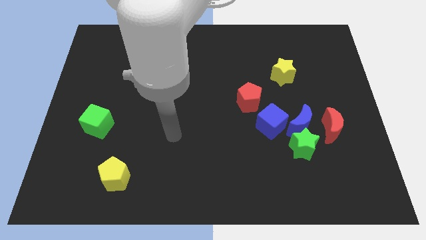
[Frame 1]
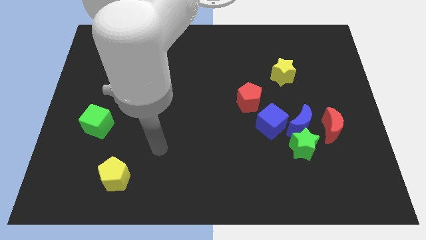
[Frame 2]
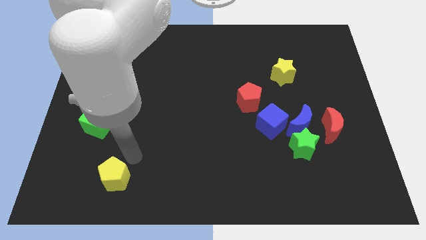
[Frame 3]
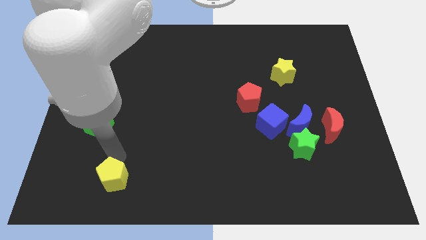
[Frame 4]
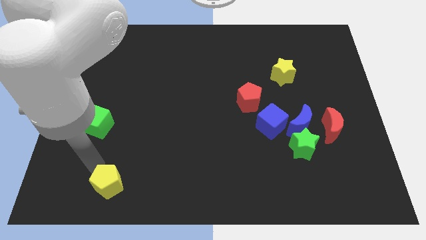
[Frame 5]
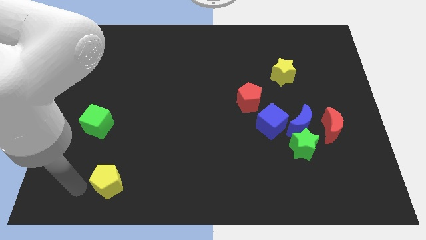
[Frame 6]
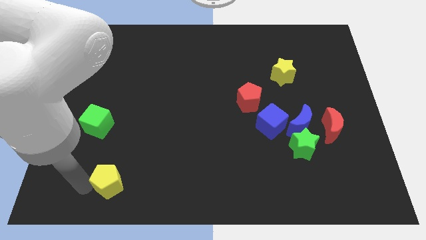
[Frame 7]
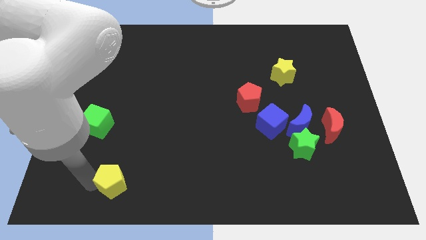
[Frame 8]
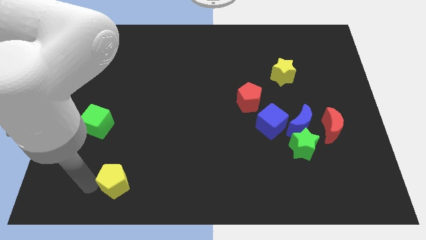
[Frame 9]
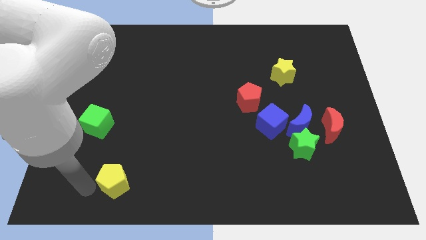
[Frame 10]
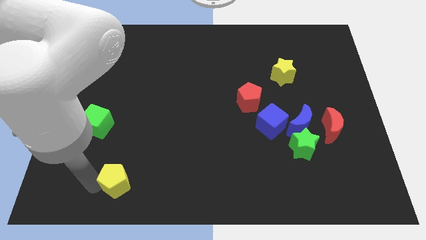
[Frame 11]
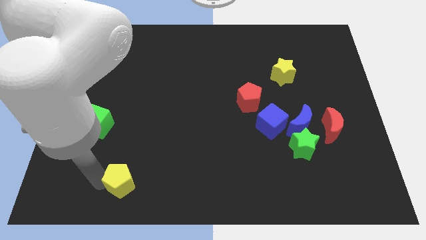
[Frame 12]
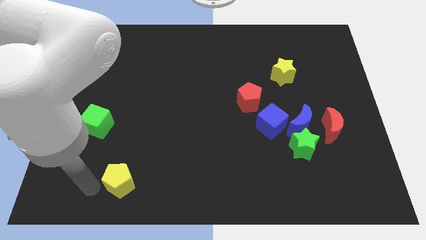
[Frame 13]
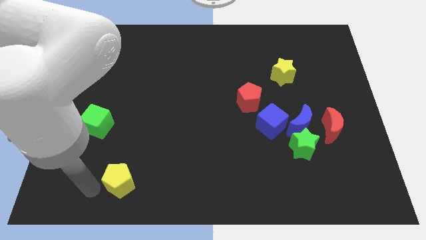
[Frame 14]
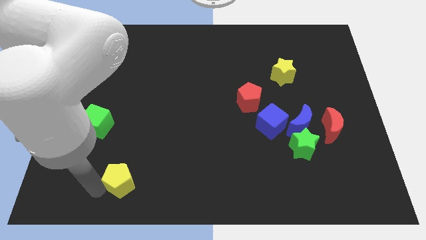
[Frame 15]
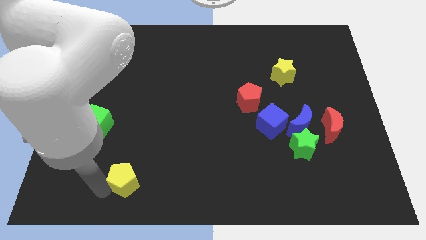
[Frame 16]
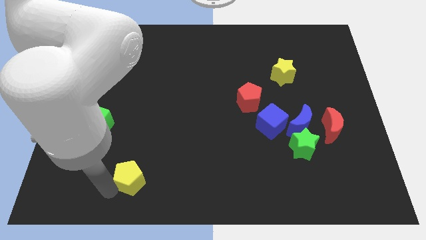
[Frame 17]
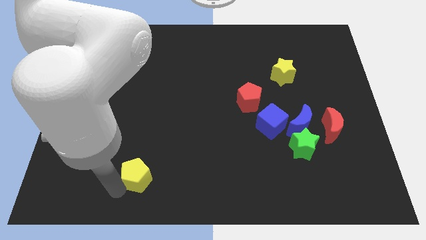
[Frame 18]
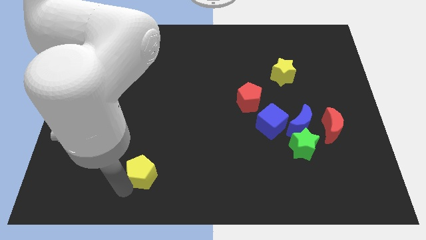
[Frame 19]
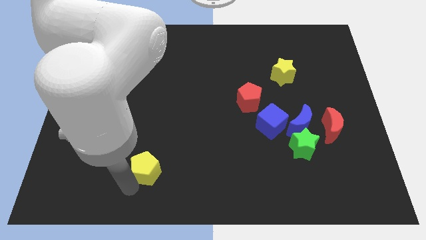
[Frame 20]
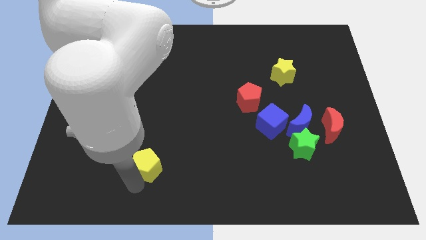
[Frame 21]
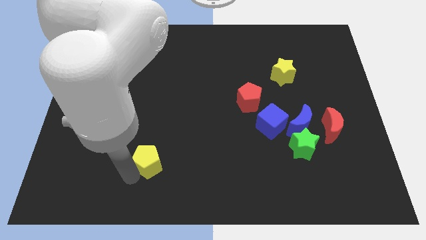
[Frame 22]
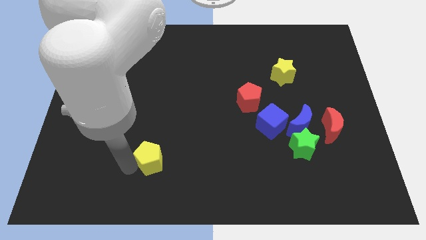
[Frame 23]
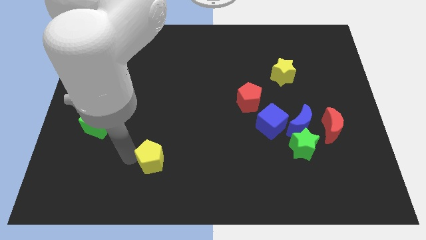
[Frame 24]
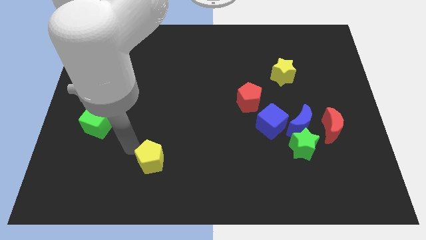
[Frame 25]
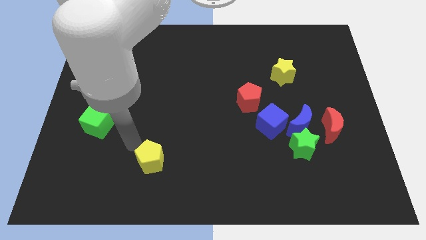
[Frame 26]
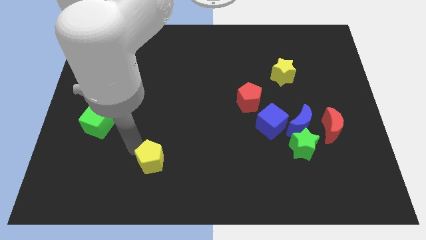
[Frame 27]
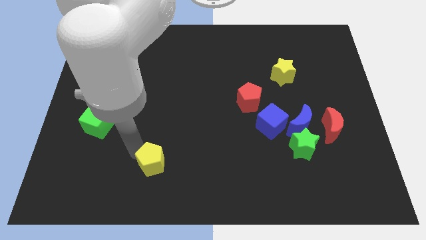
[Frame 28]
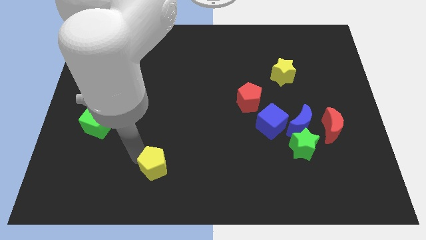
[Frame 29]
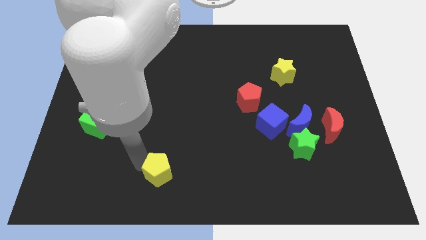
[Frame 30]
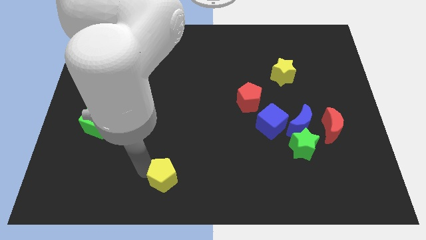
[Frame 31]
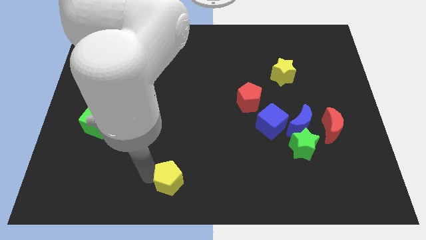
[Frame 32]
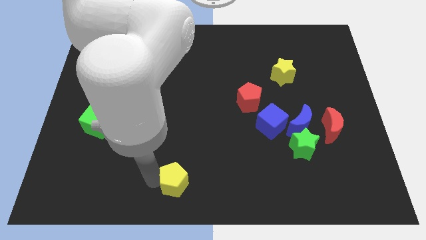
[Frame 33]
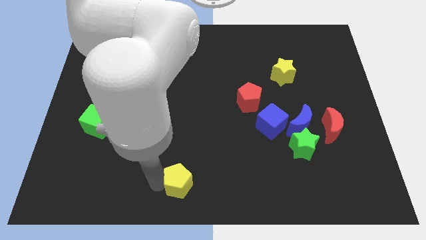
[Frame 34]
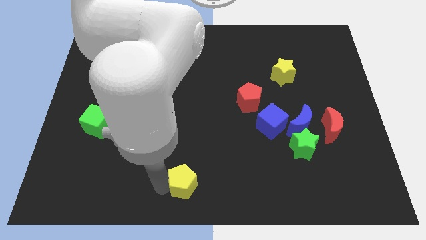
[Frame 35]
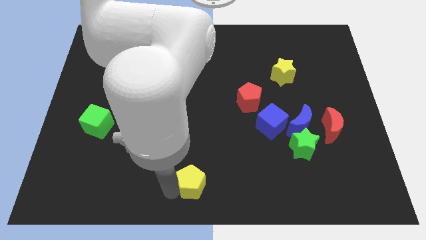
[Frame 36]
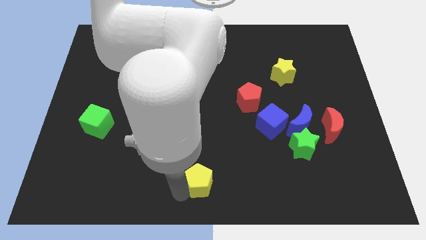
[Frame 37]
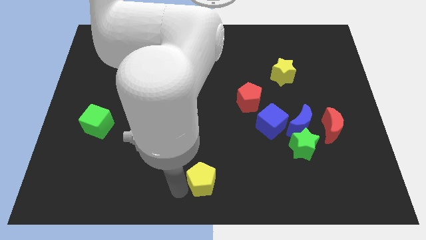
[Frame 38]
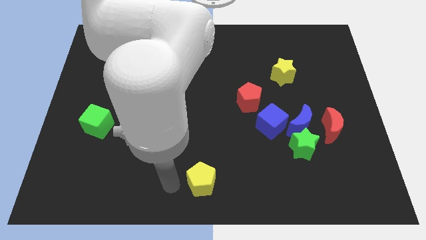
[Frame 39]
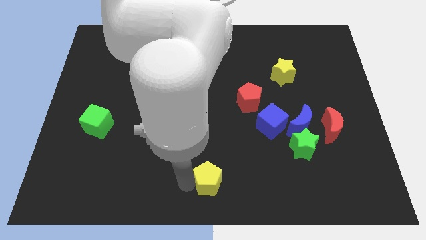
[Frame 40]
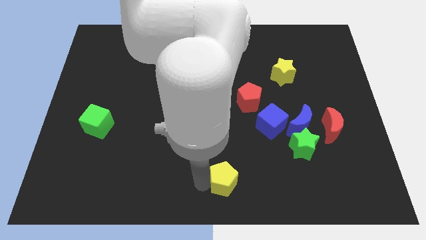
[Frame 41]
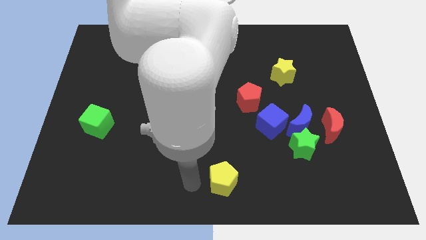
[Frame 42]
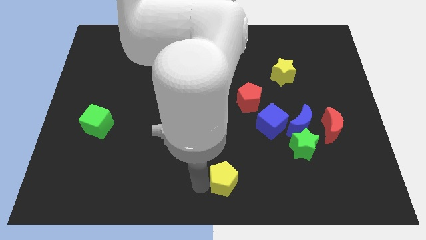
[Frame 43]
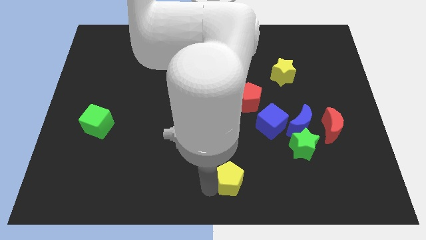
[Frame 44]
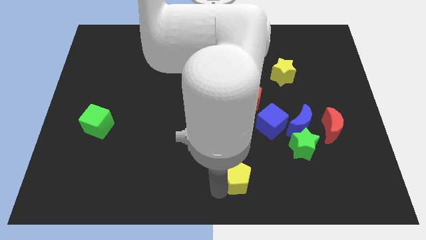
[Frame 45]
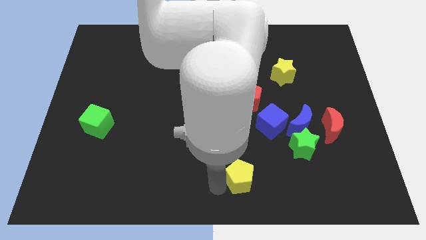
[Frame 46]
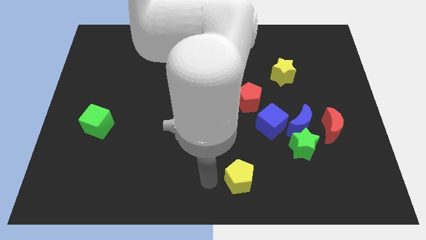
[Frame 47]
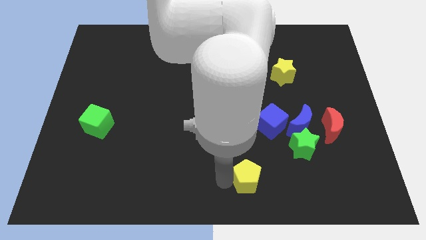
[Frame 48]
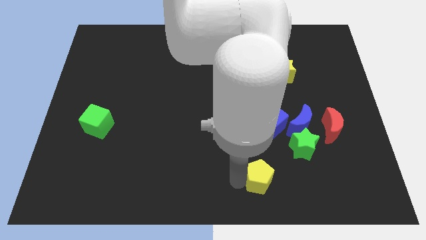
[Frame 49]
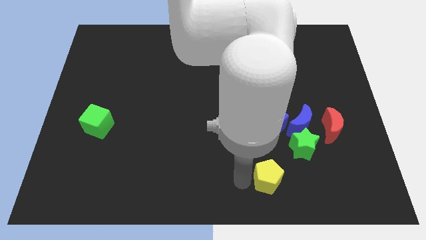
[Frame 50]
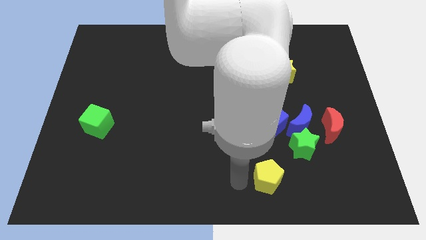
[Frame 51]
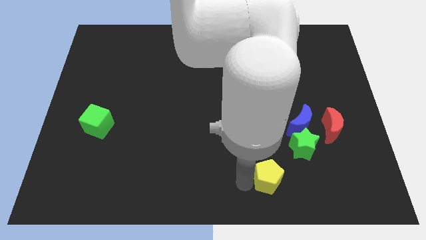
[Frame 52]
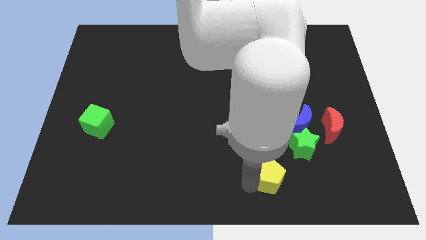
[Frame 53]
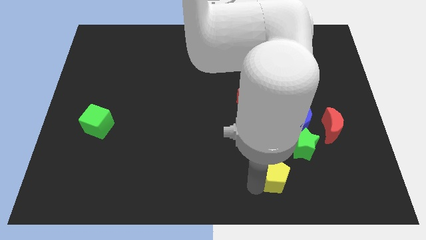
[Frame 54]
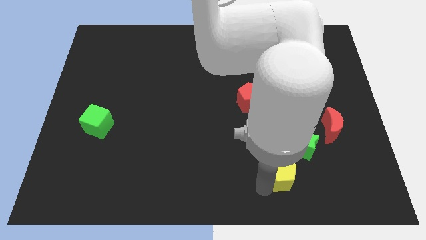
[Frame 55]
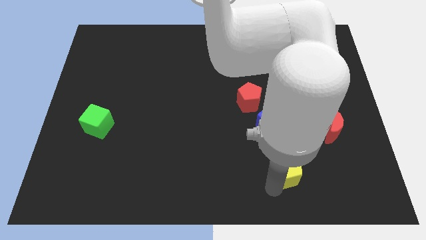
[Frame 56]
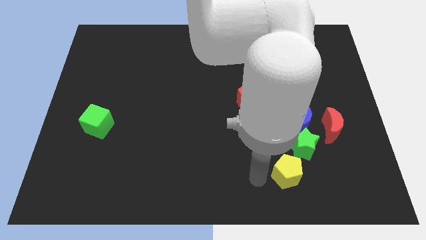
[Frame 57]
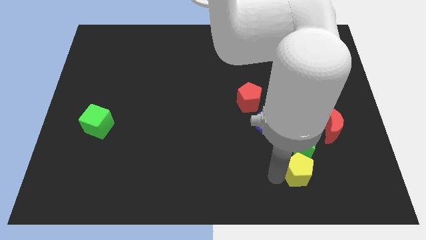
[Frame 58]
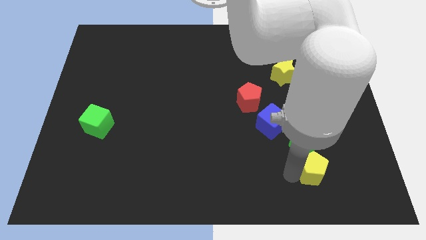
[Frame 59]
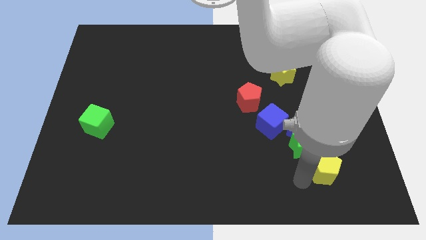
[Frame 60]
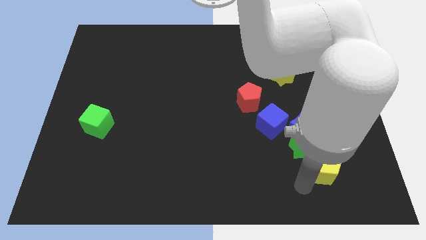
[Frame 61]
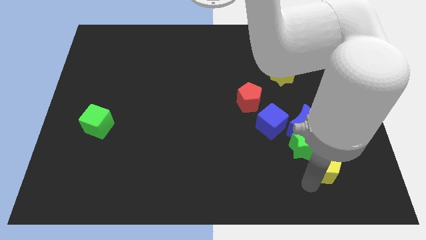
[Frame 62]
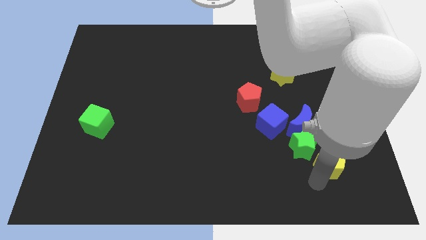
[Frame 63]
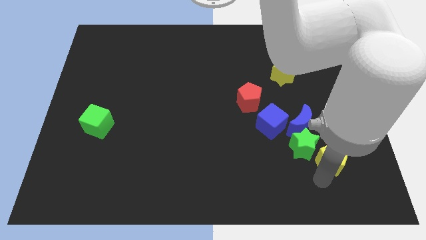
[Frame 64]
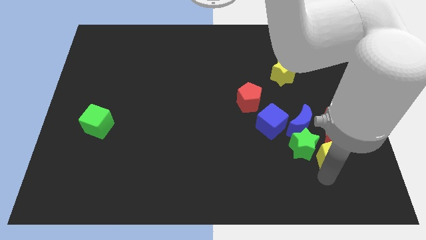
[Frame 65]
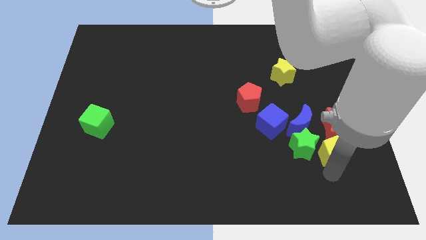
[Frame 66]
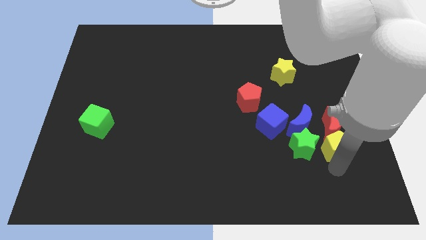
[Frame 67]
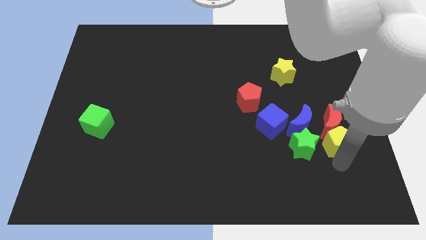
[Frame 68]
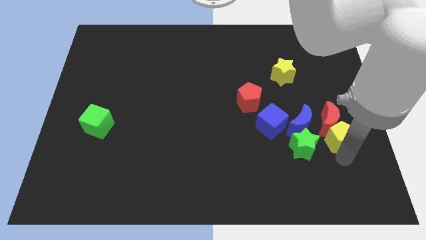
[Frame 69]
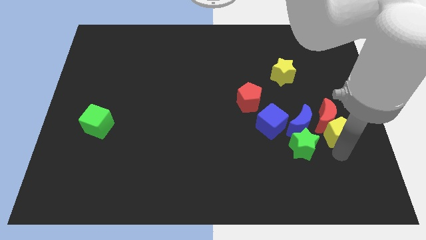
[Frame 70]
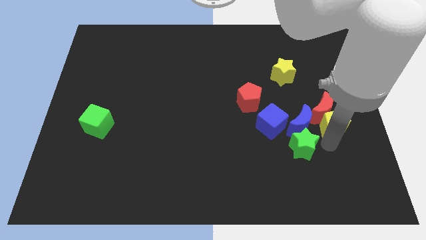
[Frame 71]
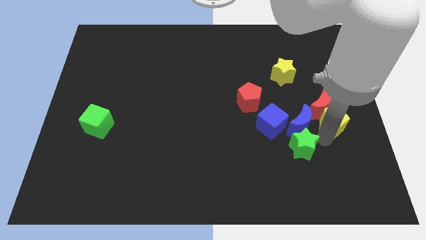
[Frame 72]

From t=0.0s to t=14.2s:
slide the yellow pentagon to the right side
